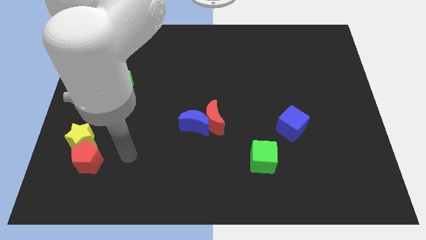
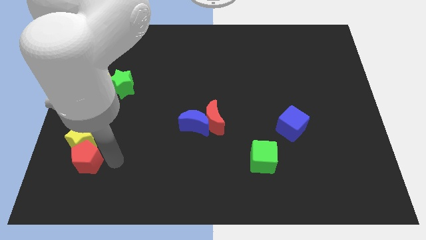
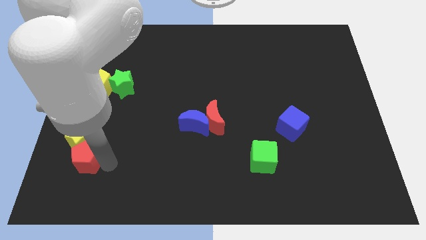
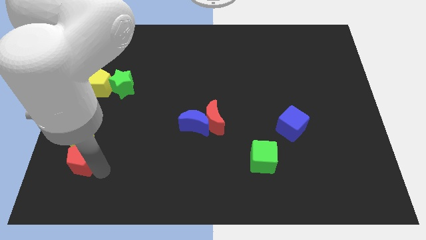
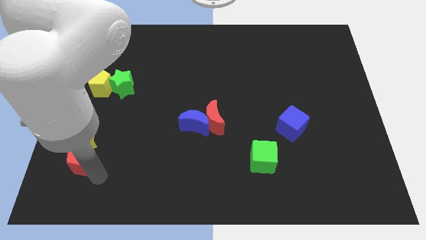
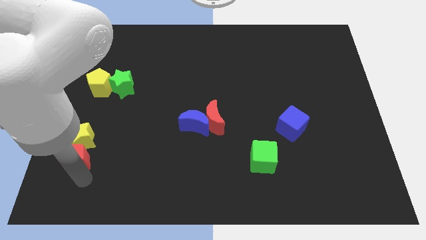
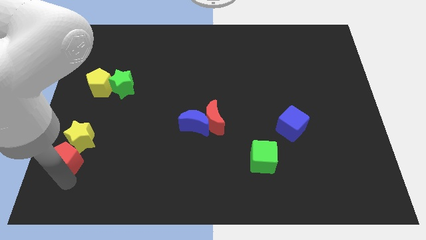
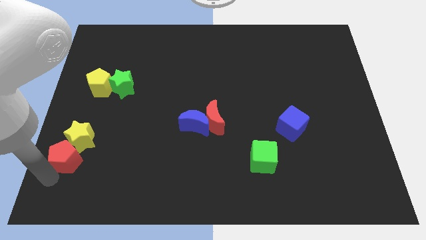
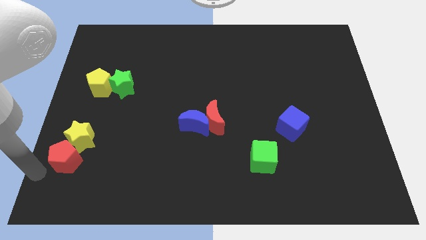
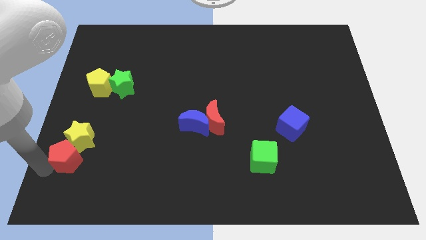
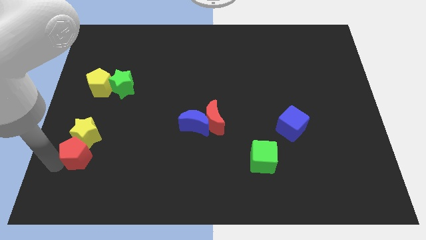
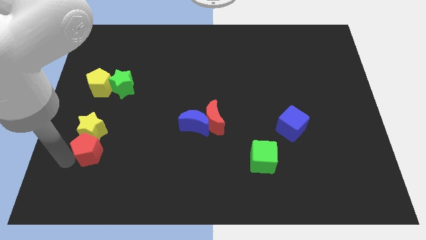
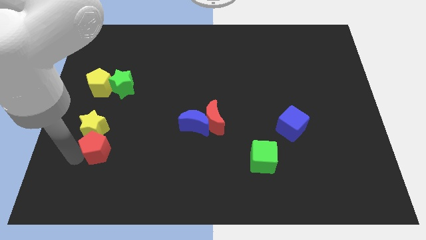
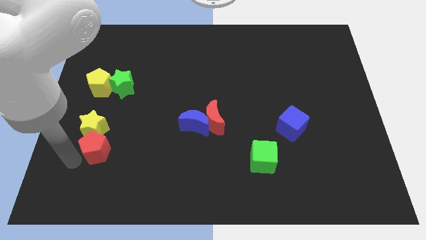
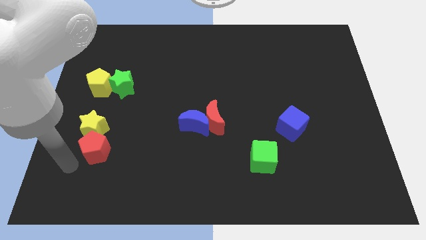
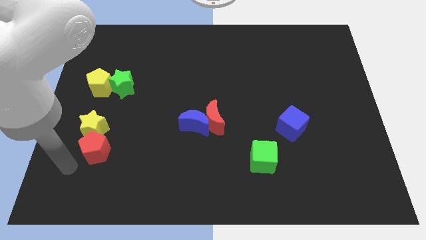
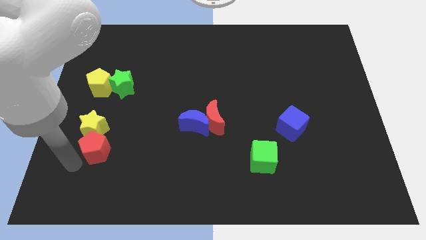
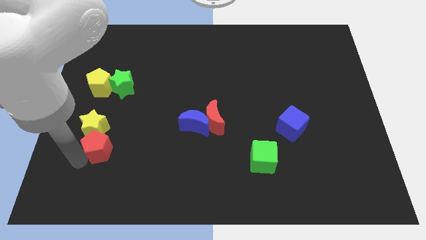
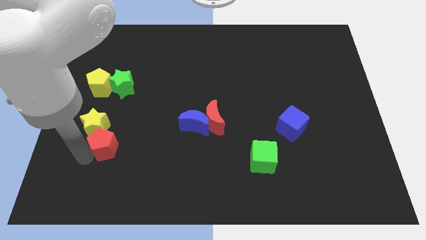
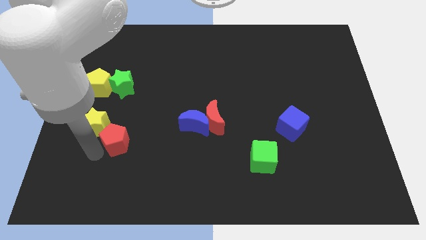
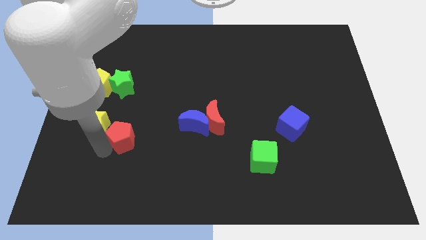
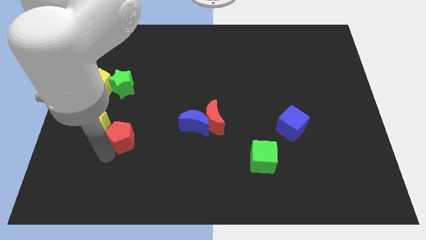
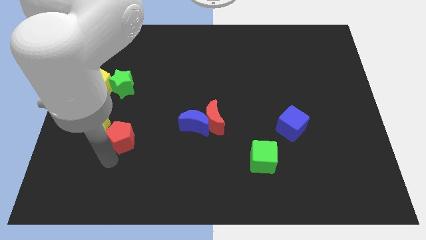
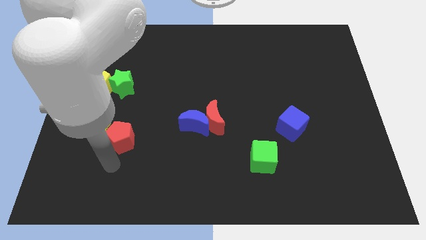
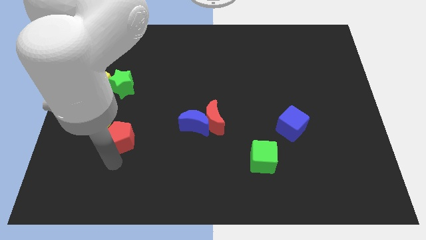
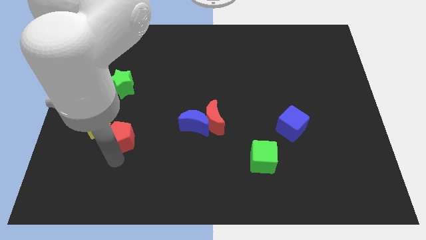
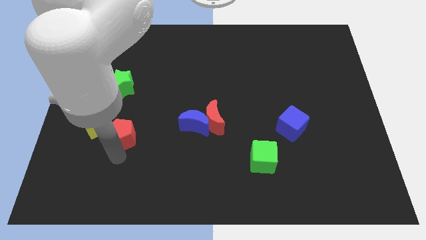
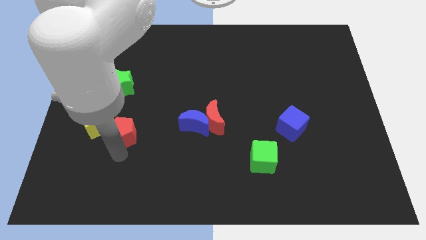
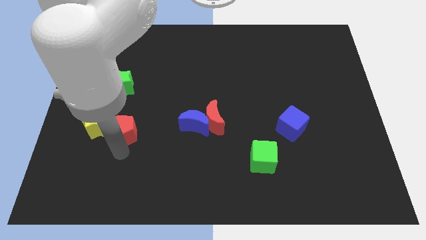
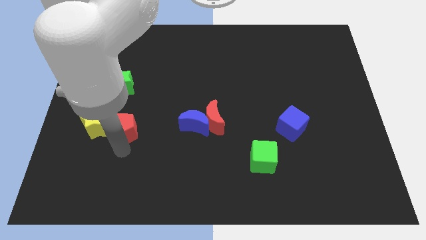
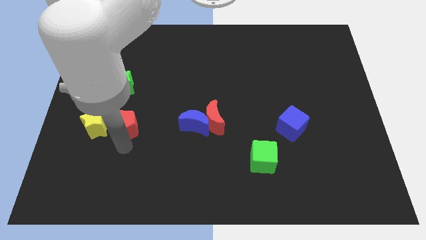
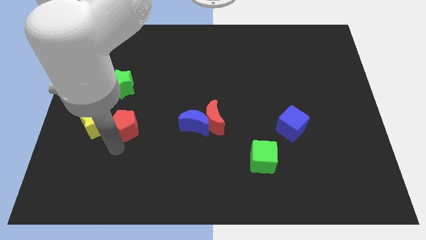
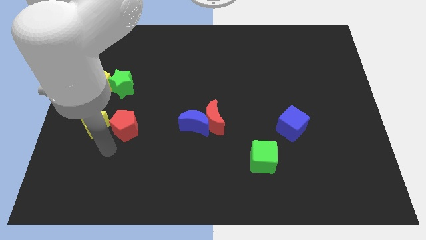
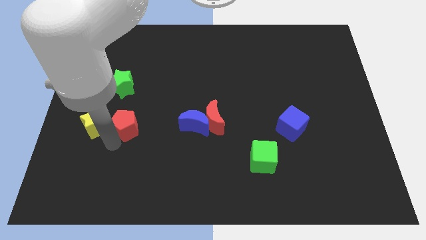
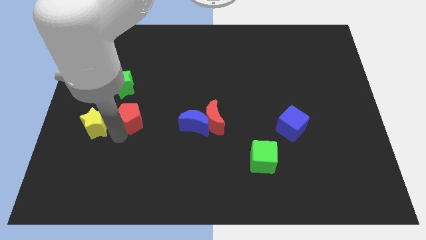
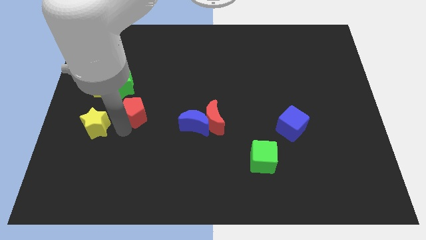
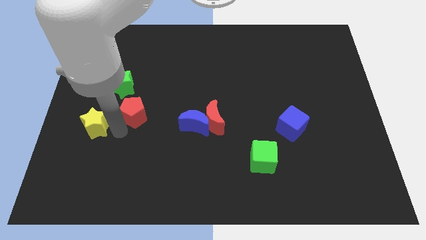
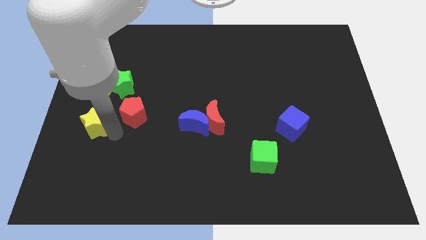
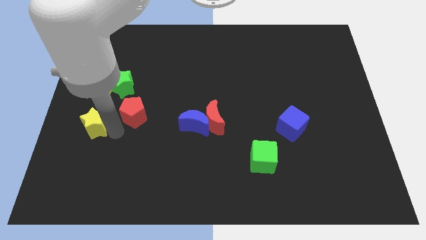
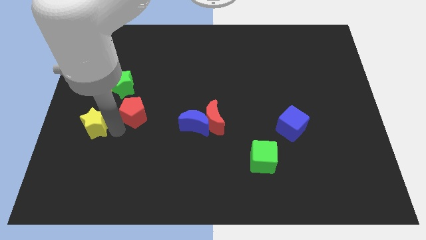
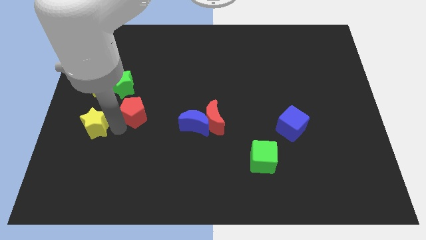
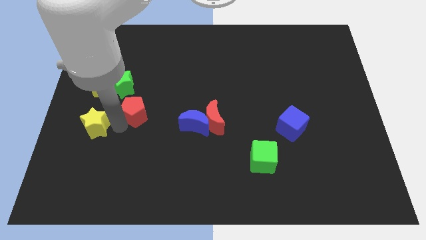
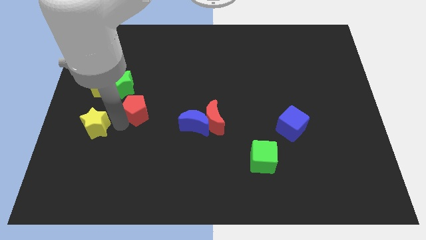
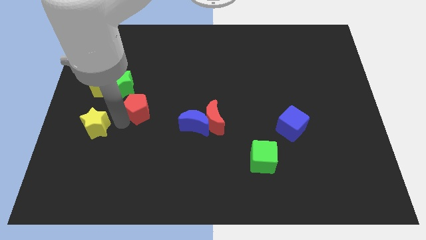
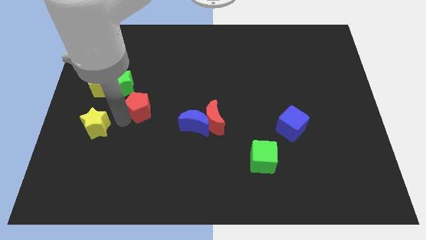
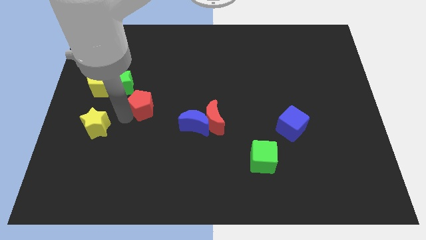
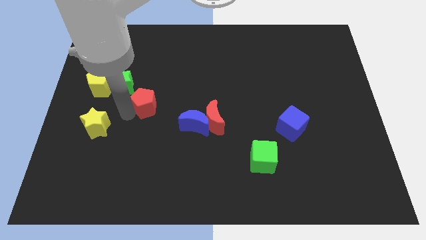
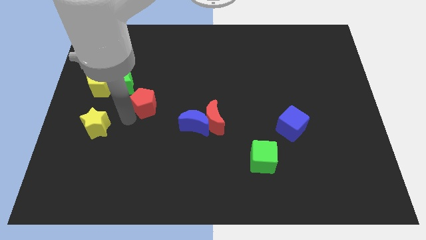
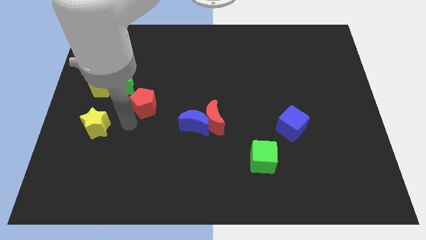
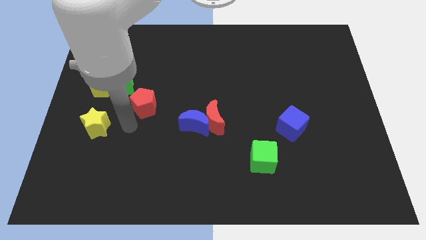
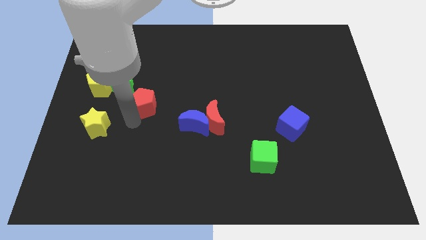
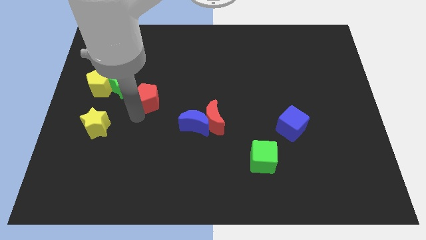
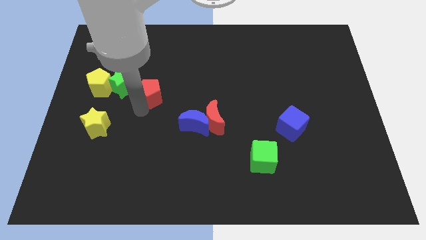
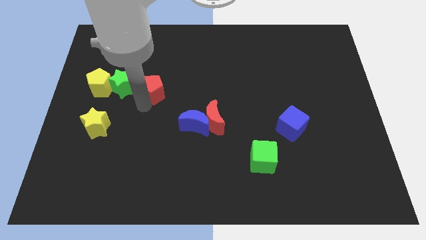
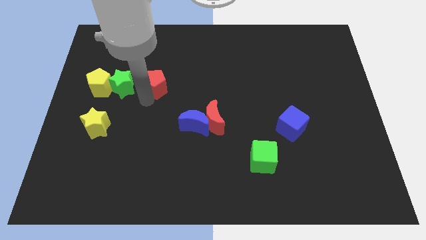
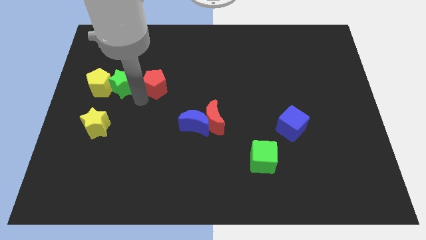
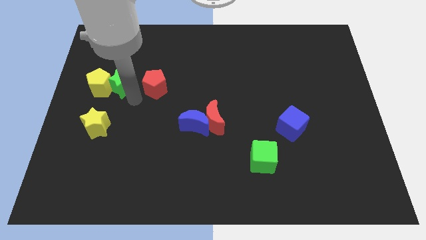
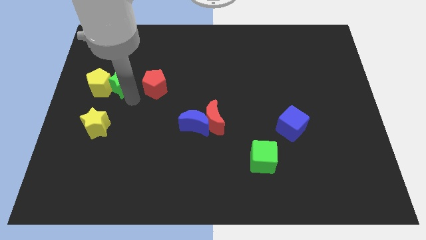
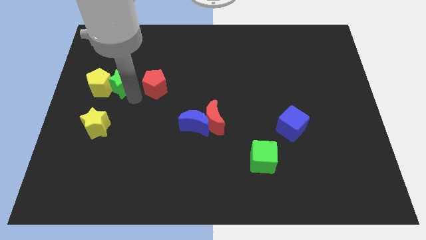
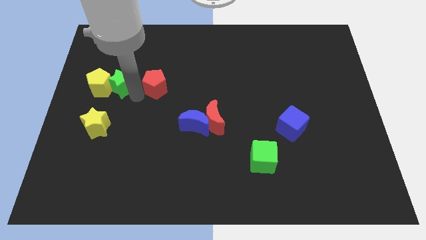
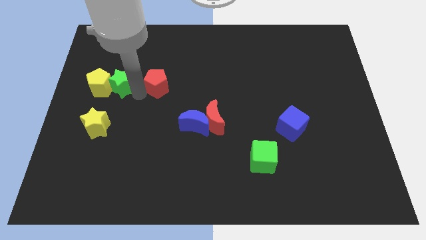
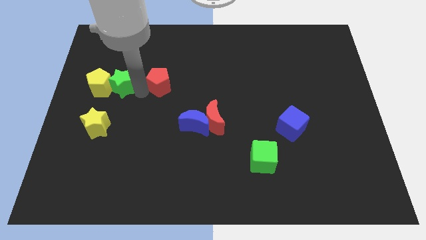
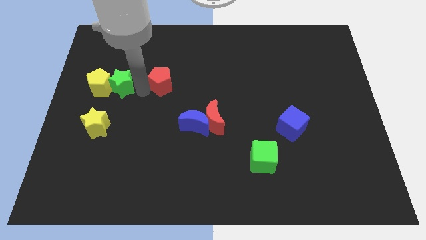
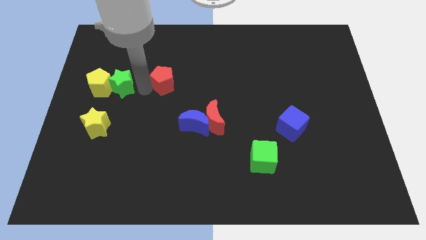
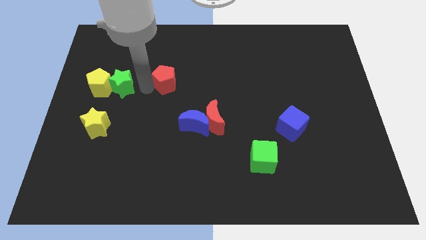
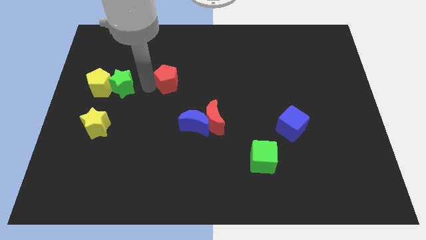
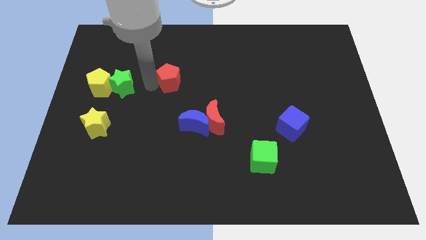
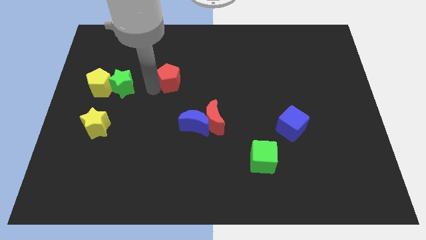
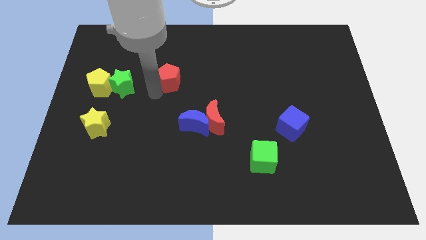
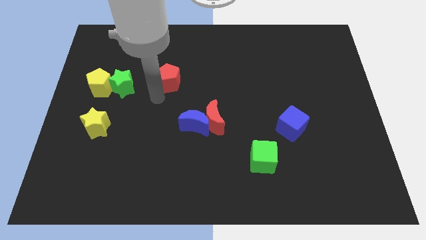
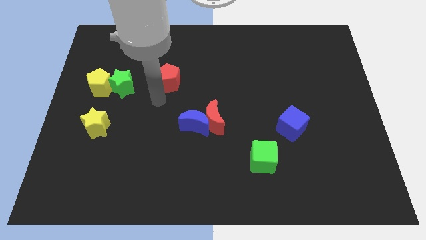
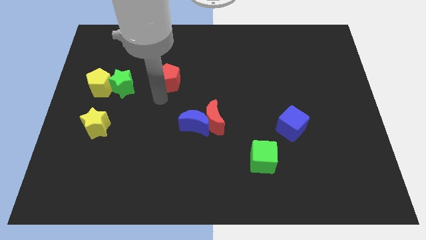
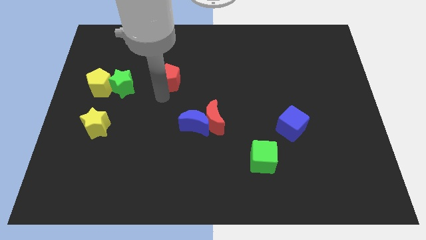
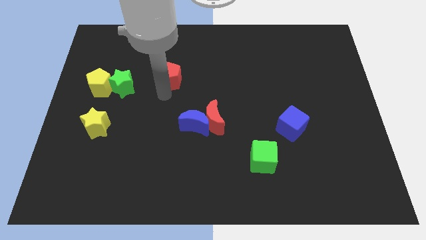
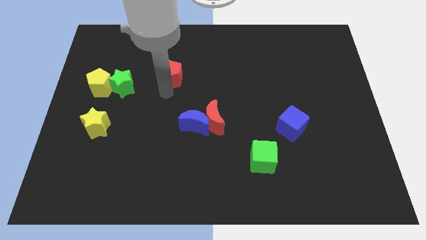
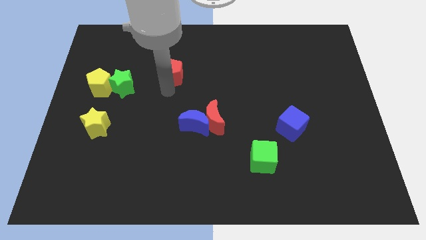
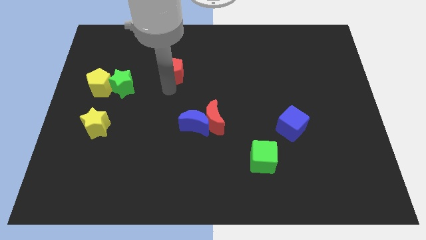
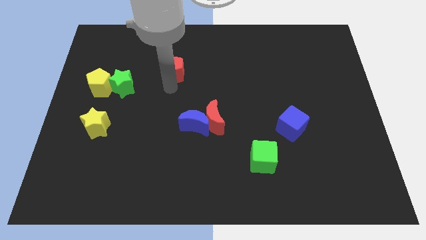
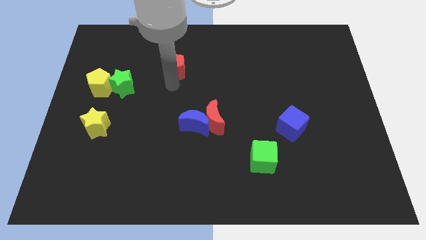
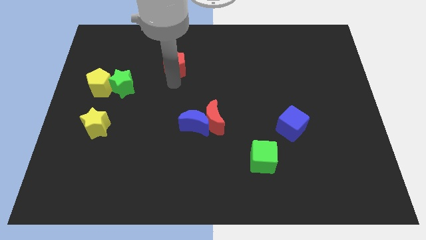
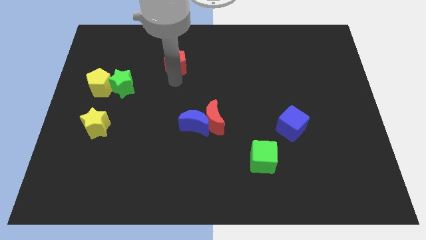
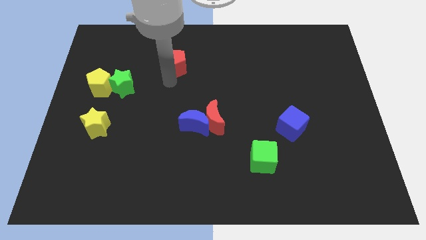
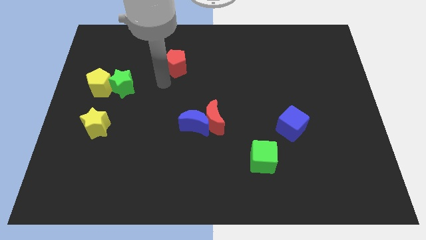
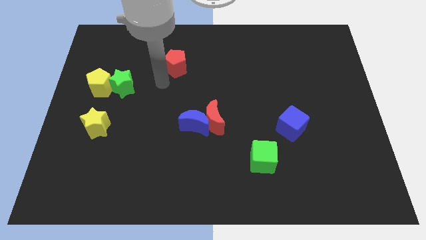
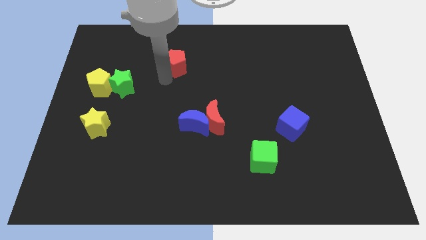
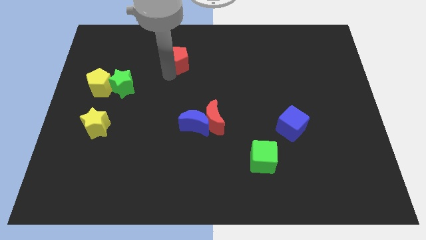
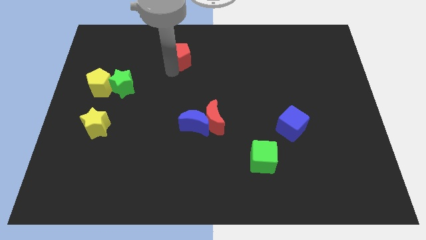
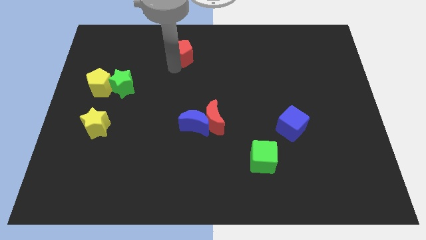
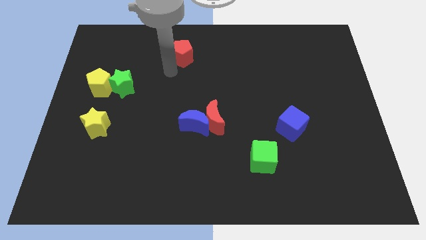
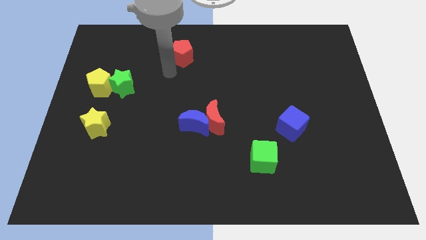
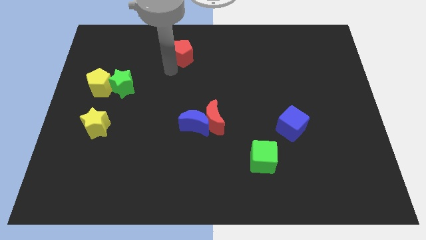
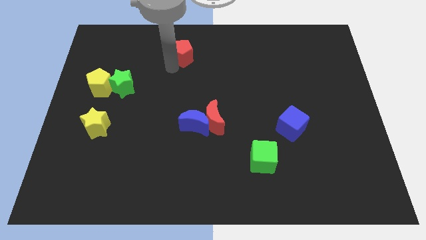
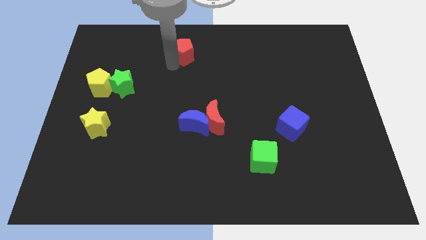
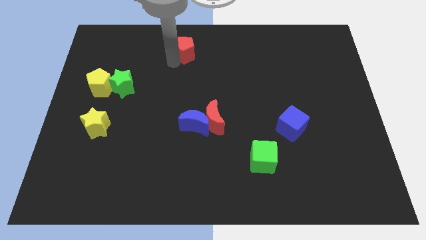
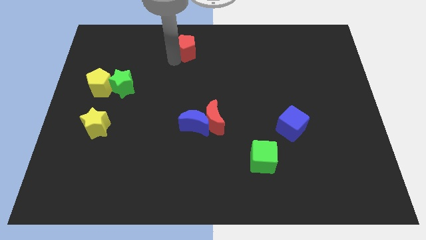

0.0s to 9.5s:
slide the red pentagon to the top side
